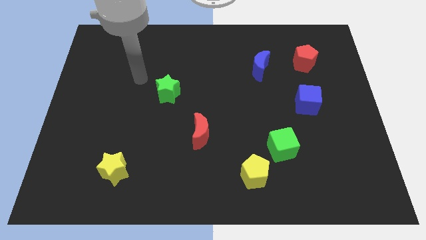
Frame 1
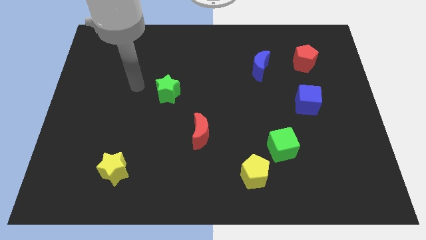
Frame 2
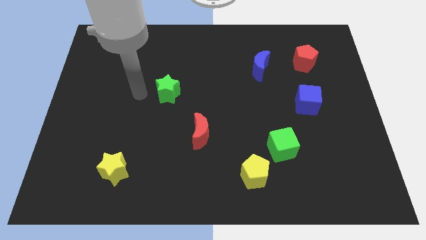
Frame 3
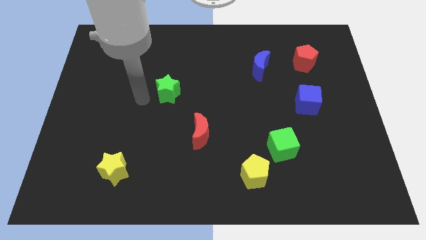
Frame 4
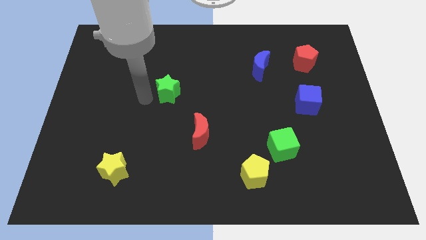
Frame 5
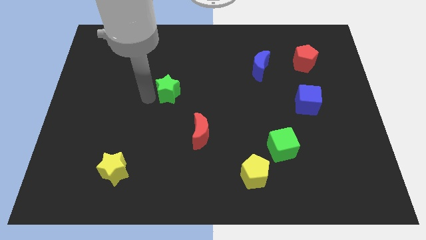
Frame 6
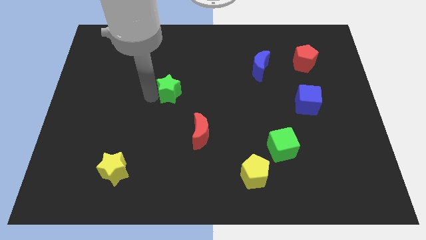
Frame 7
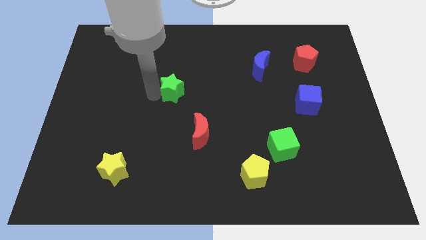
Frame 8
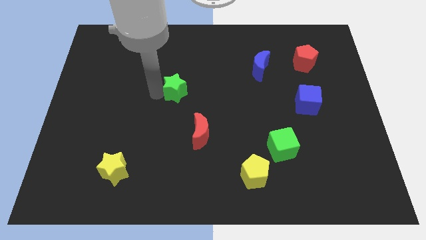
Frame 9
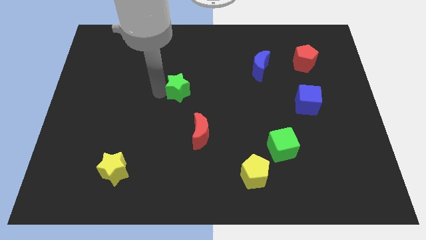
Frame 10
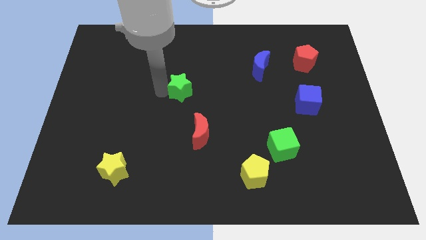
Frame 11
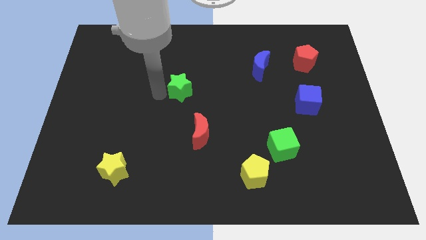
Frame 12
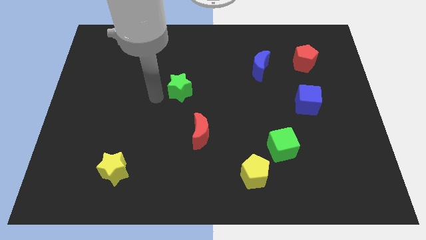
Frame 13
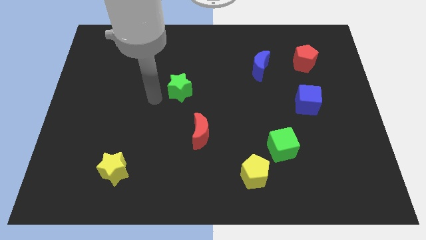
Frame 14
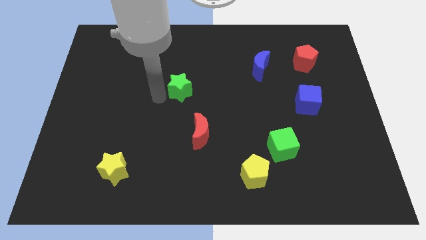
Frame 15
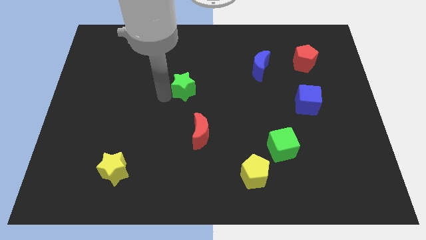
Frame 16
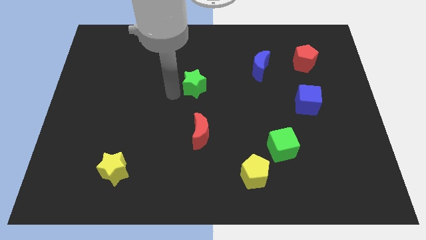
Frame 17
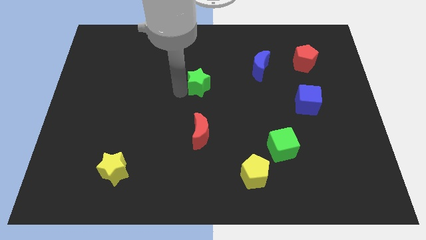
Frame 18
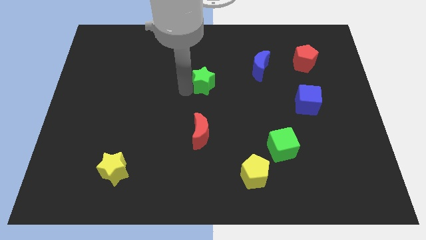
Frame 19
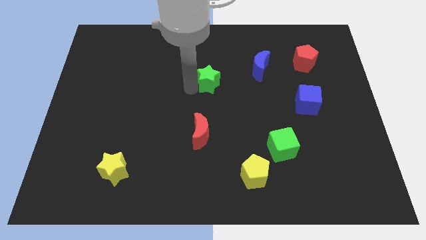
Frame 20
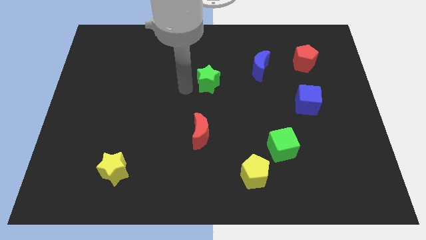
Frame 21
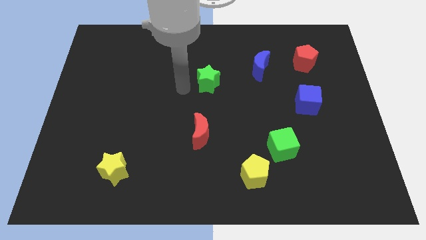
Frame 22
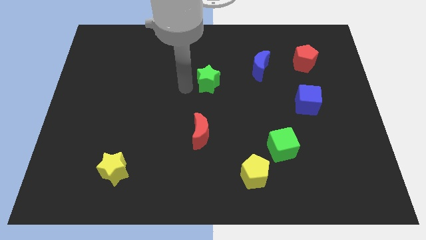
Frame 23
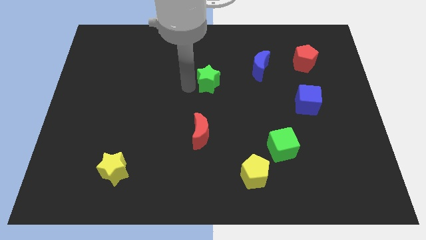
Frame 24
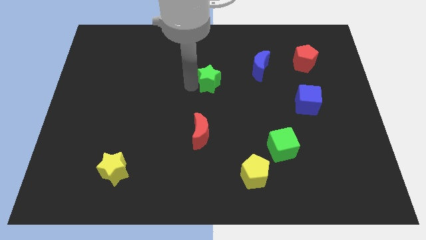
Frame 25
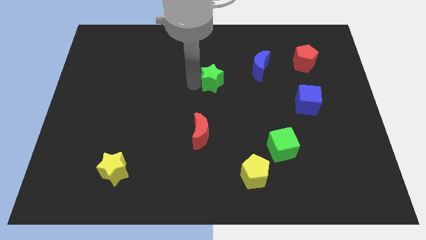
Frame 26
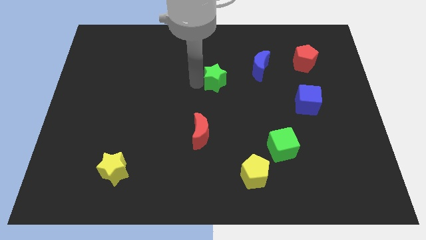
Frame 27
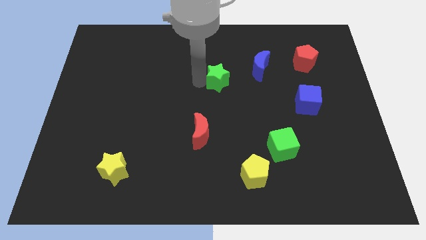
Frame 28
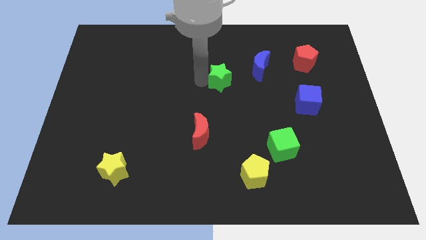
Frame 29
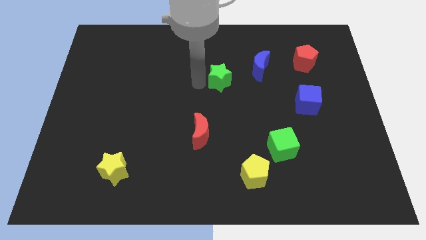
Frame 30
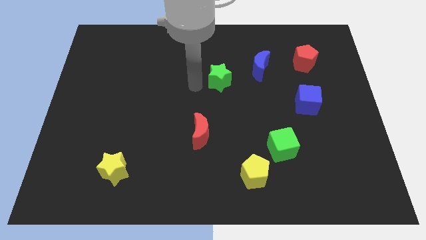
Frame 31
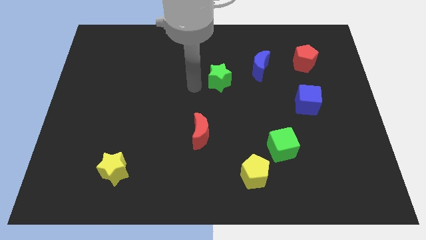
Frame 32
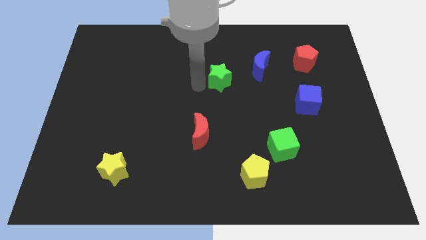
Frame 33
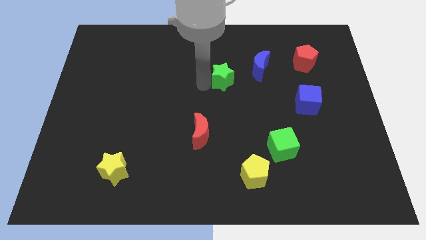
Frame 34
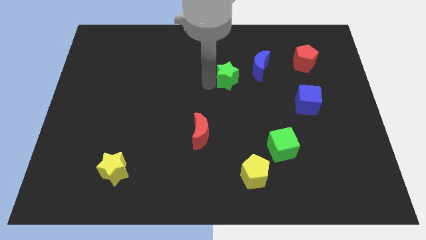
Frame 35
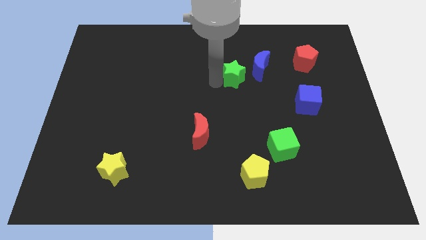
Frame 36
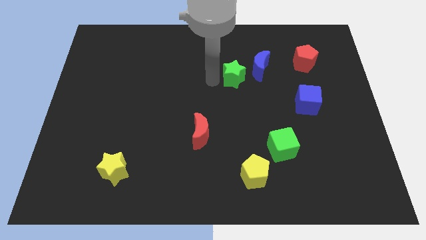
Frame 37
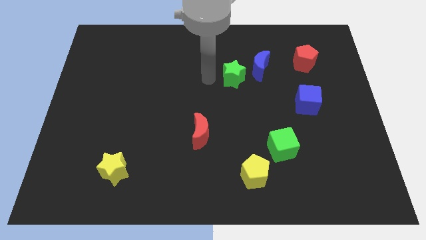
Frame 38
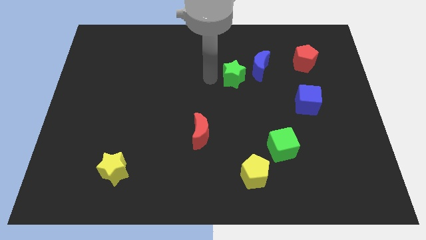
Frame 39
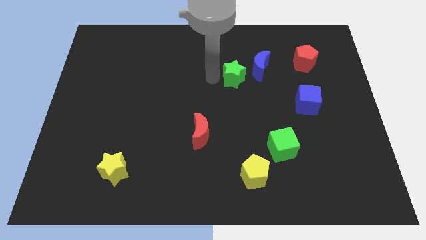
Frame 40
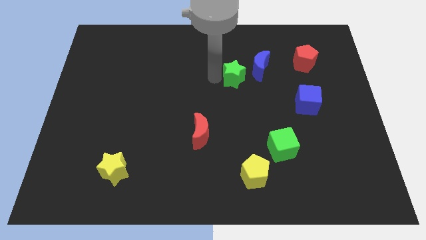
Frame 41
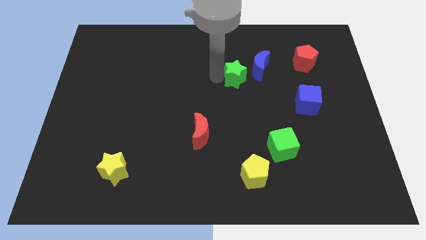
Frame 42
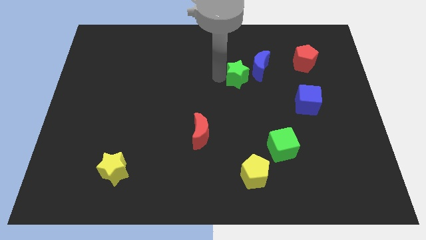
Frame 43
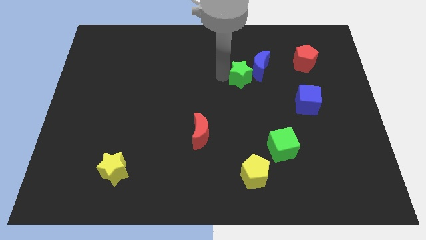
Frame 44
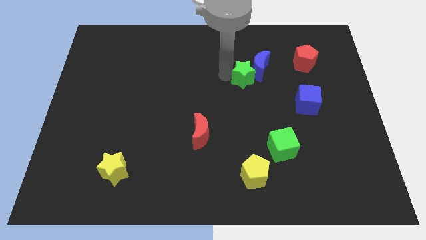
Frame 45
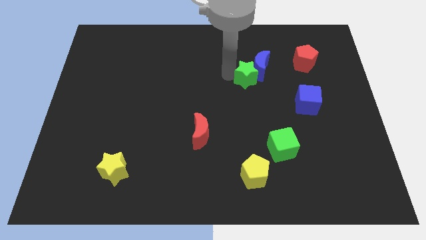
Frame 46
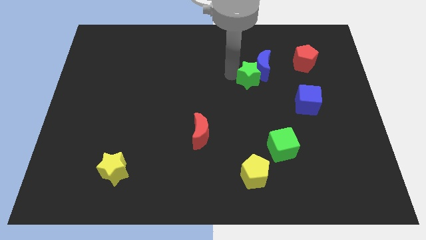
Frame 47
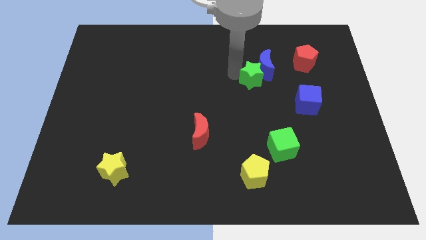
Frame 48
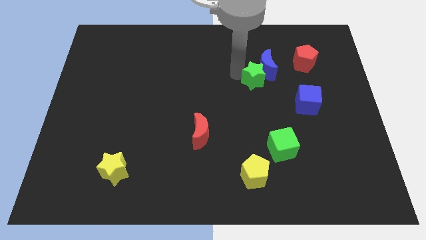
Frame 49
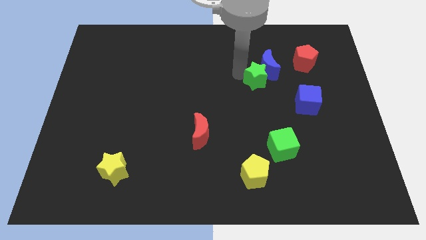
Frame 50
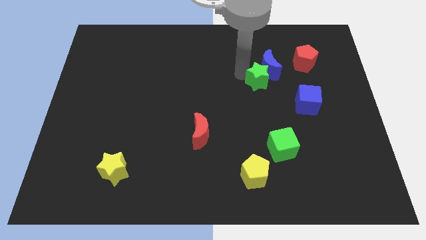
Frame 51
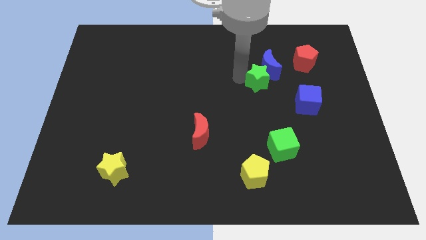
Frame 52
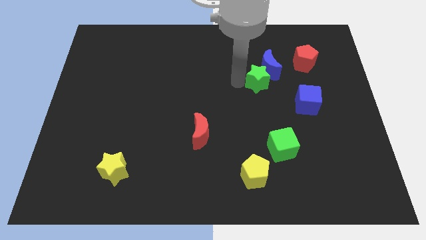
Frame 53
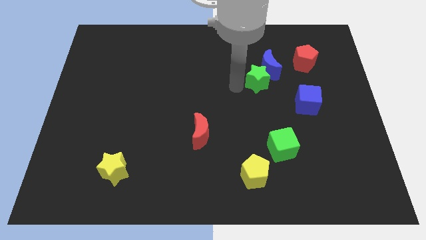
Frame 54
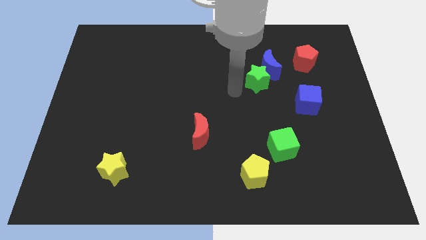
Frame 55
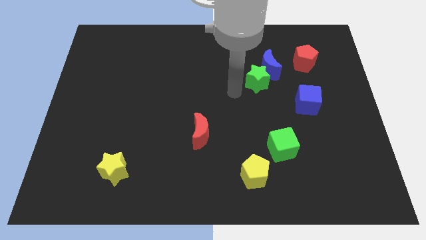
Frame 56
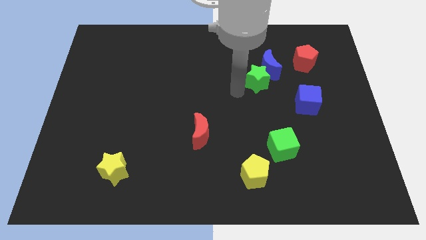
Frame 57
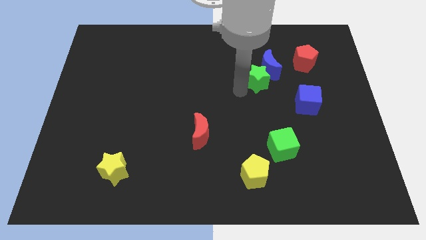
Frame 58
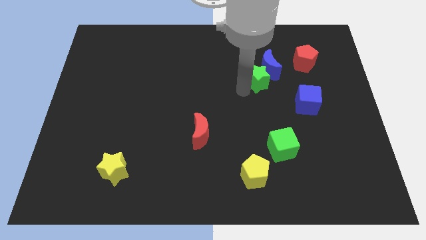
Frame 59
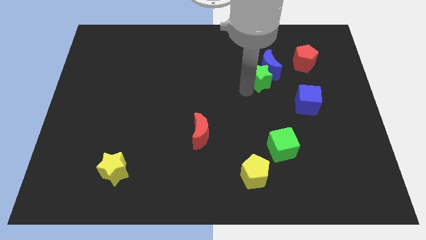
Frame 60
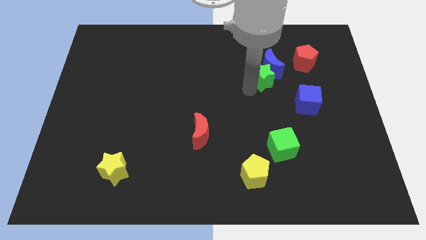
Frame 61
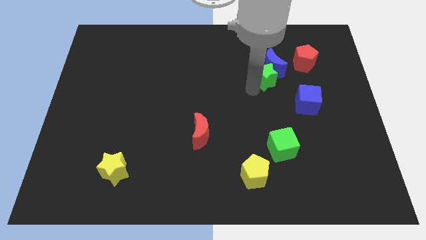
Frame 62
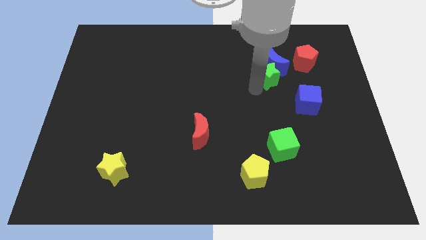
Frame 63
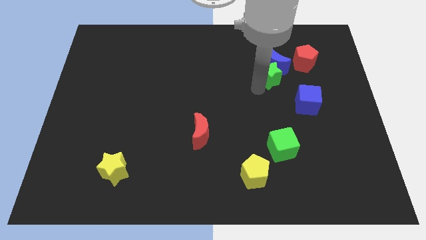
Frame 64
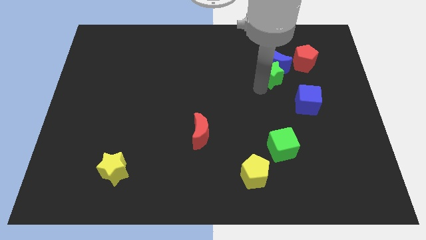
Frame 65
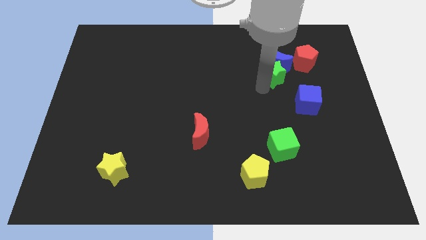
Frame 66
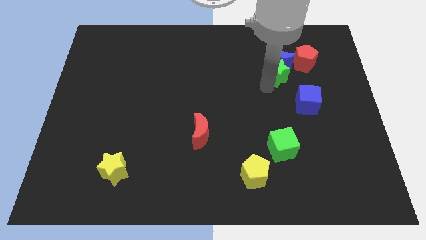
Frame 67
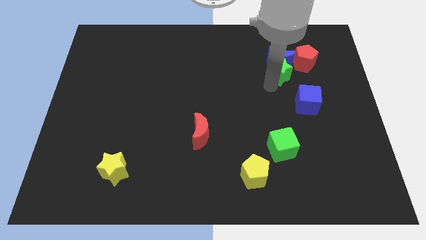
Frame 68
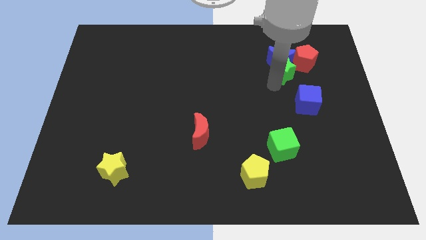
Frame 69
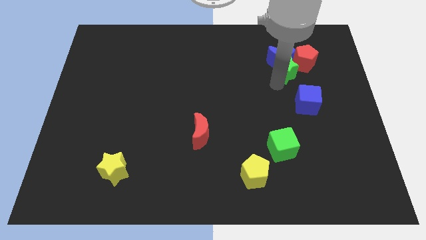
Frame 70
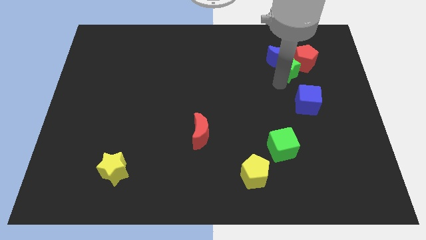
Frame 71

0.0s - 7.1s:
push the green star to the red pentagon

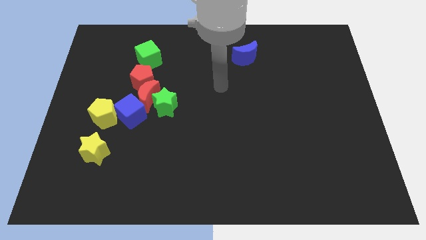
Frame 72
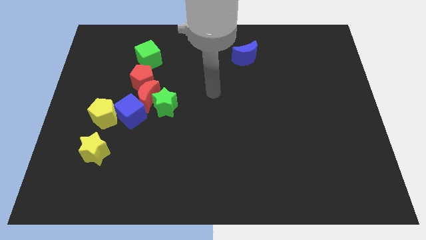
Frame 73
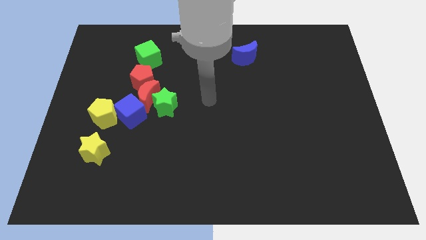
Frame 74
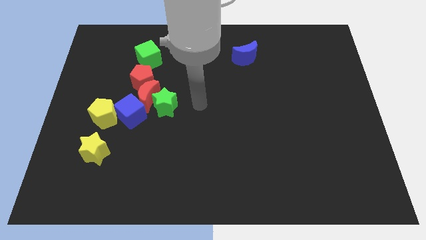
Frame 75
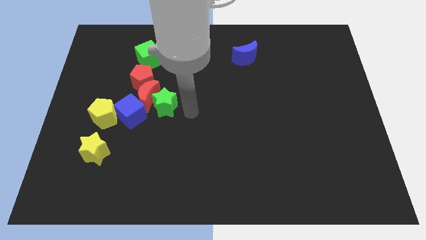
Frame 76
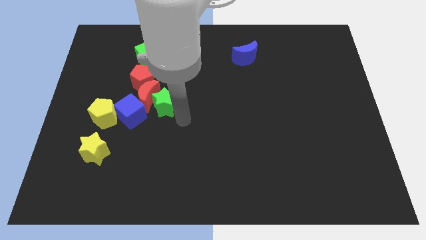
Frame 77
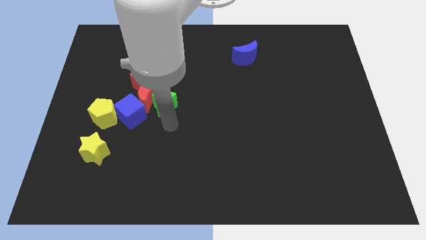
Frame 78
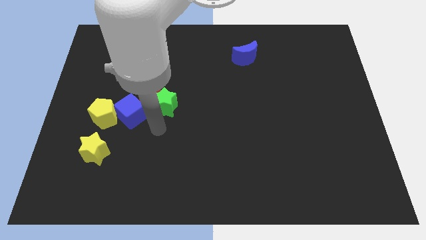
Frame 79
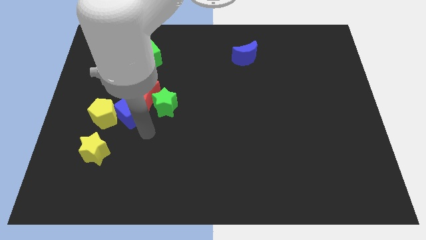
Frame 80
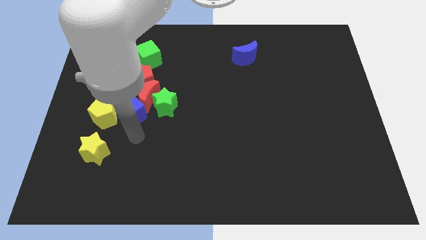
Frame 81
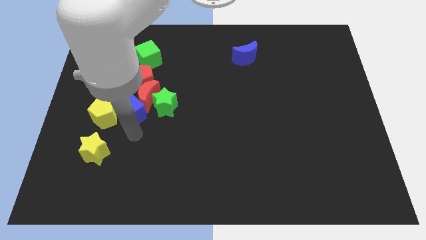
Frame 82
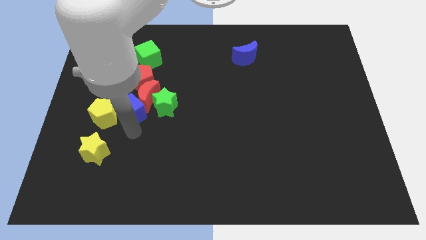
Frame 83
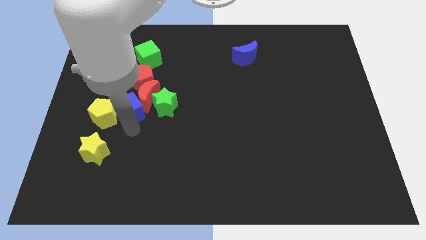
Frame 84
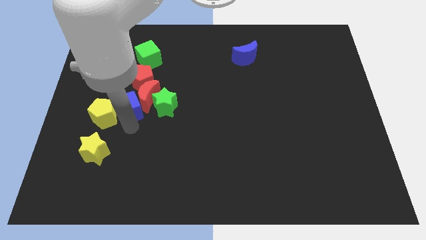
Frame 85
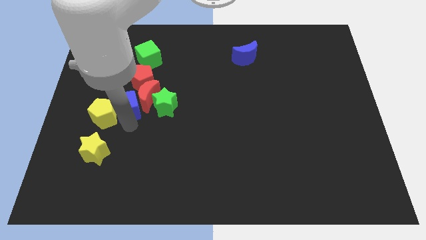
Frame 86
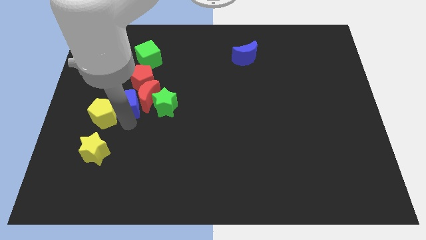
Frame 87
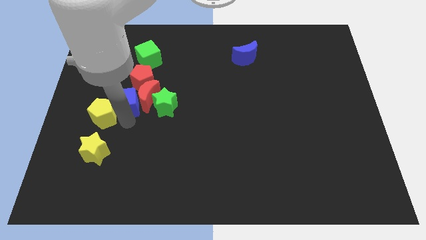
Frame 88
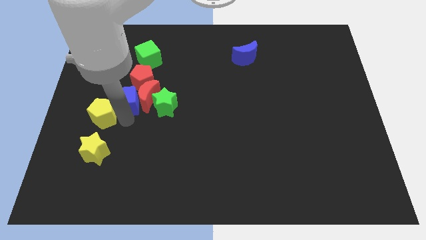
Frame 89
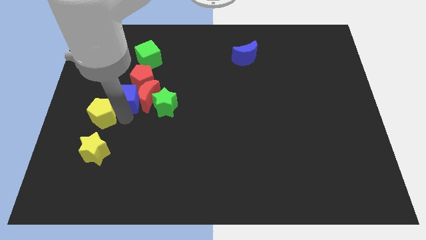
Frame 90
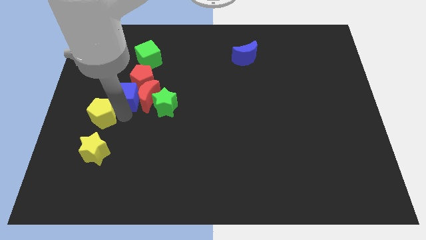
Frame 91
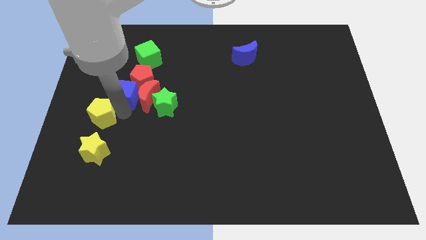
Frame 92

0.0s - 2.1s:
move the blue cube close to the red pentagon
